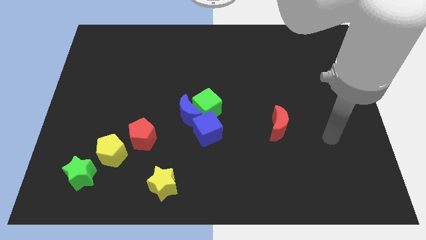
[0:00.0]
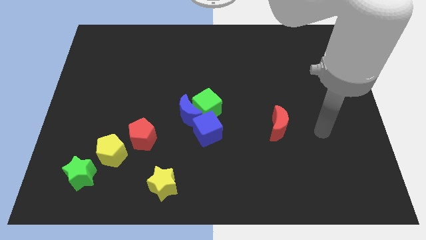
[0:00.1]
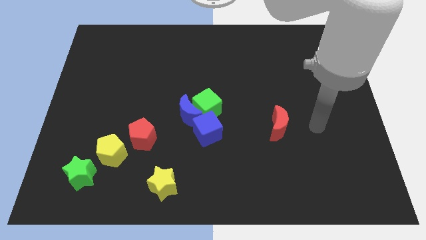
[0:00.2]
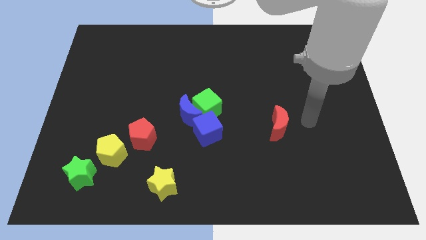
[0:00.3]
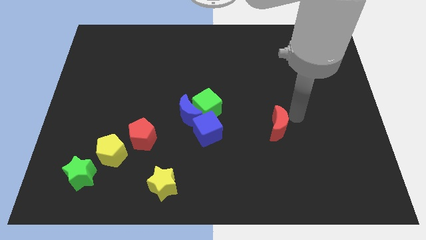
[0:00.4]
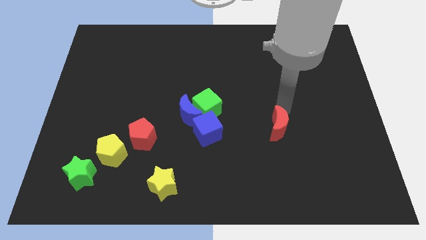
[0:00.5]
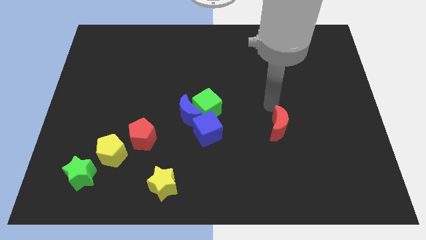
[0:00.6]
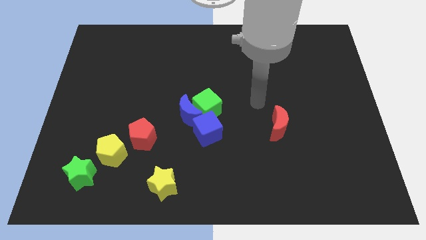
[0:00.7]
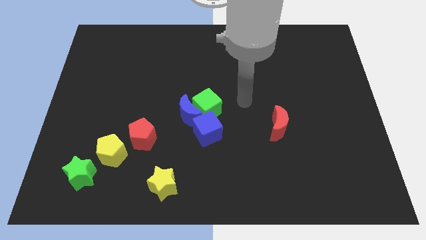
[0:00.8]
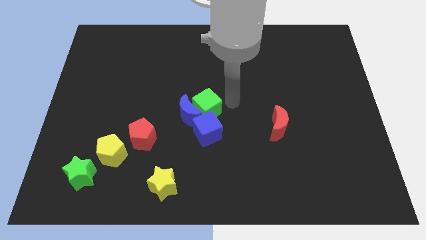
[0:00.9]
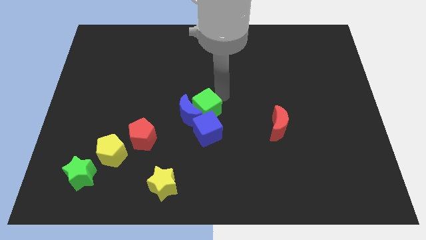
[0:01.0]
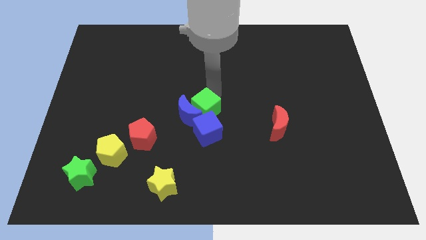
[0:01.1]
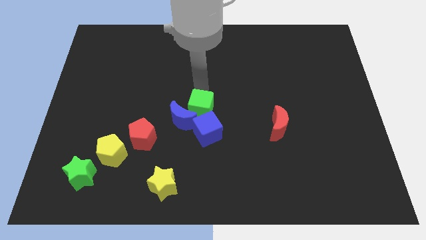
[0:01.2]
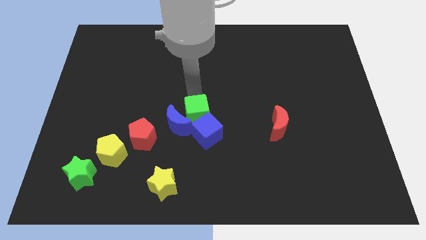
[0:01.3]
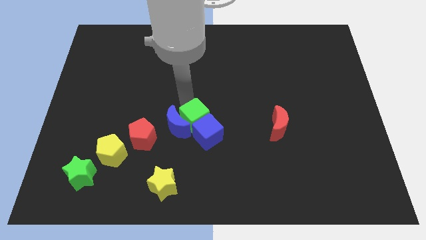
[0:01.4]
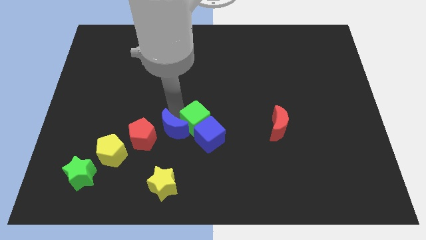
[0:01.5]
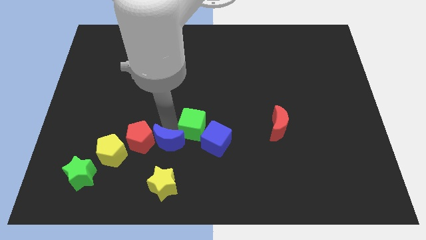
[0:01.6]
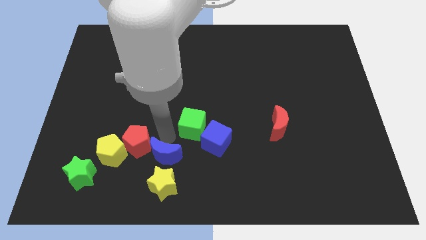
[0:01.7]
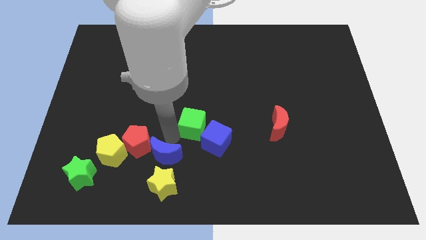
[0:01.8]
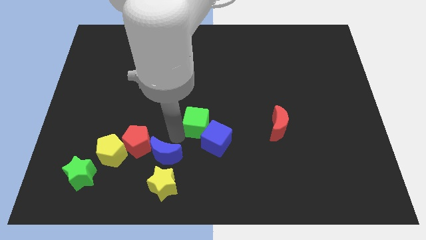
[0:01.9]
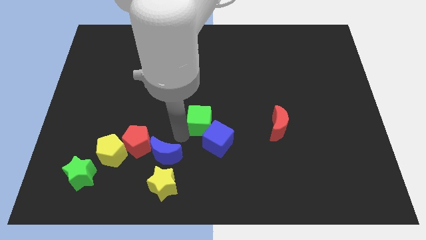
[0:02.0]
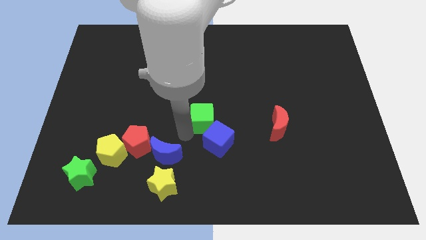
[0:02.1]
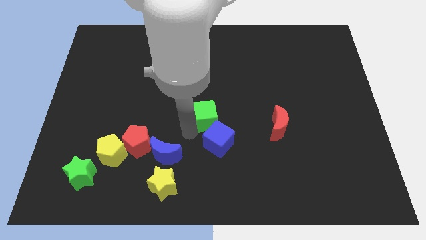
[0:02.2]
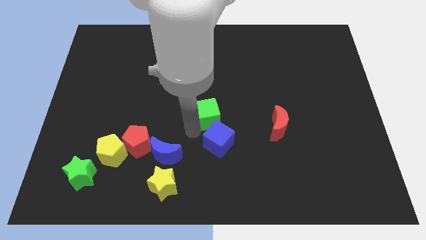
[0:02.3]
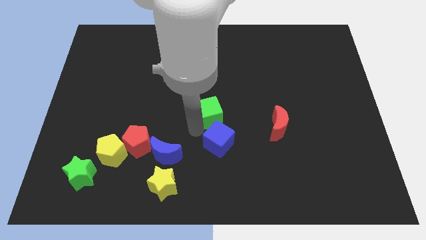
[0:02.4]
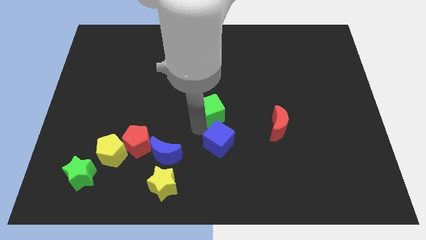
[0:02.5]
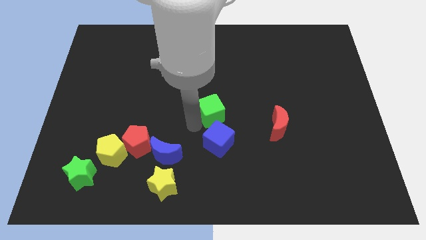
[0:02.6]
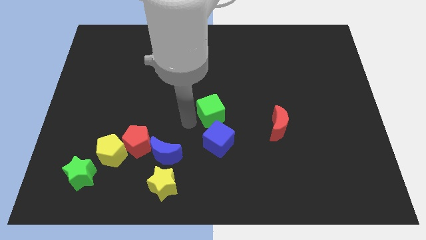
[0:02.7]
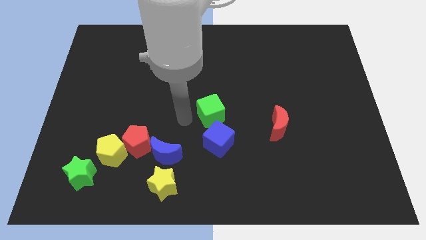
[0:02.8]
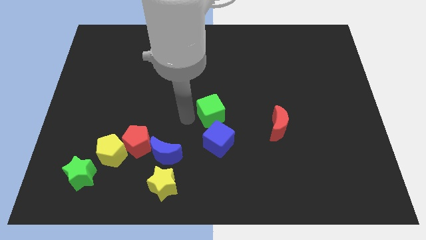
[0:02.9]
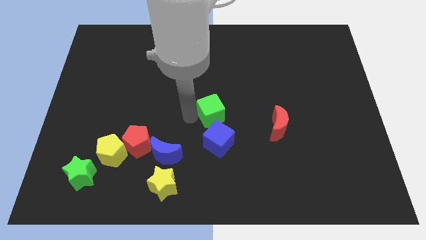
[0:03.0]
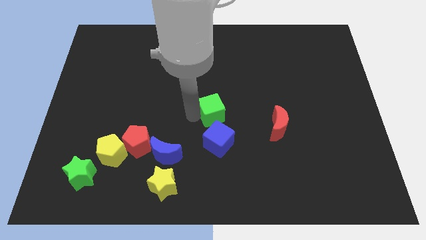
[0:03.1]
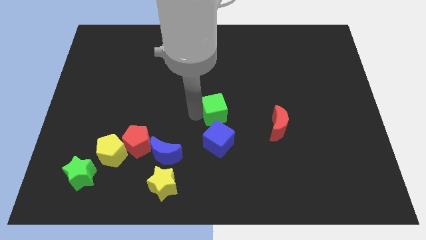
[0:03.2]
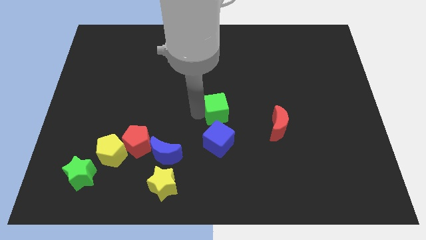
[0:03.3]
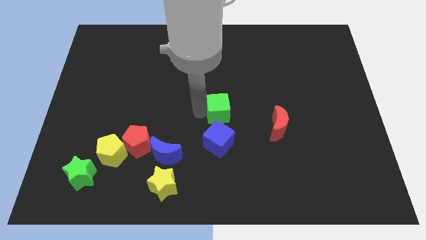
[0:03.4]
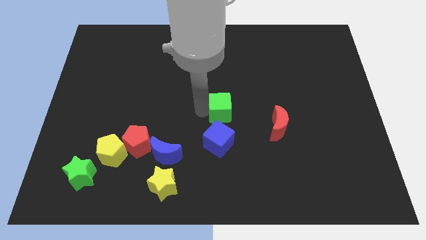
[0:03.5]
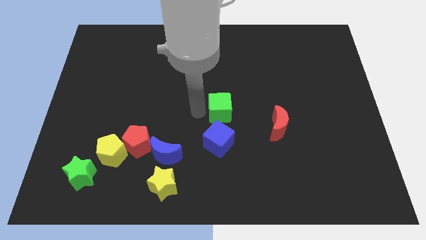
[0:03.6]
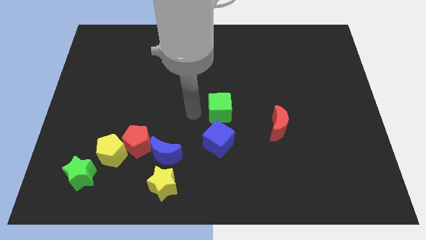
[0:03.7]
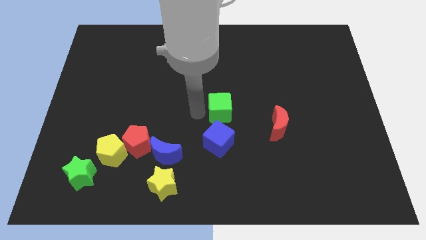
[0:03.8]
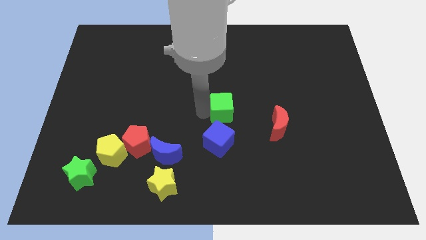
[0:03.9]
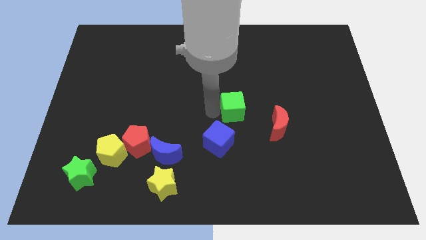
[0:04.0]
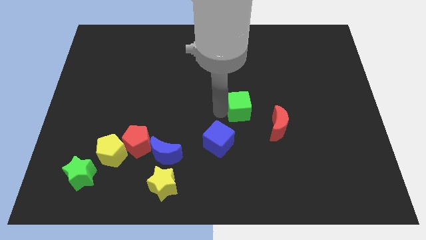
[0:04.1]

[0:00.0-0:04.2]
push the green cube slightly to the right

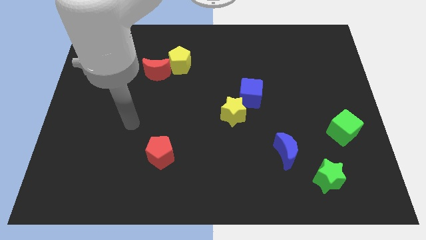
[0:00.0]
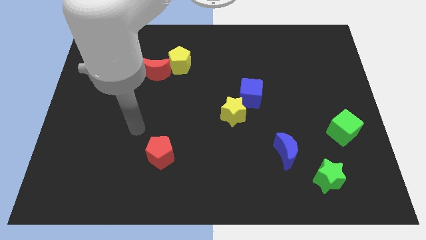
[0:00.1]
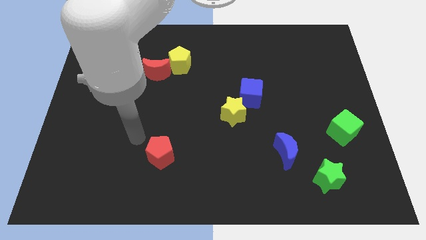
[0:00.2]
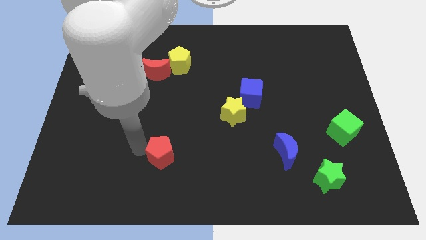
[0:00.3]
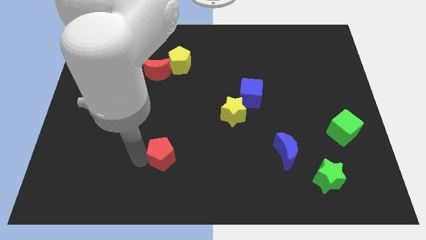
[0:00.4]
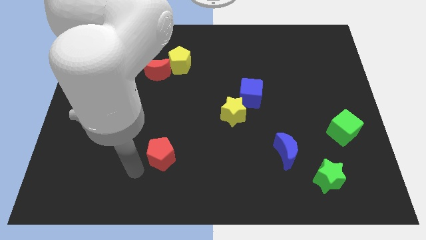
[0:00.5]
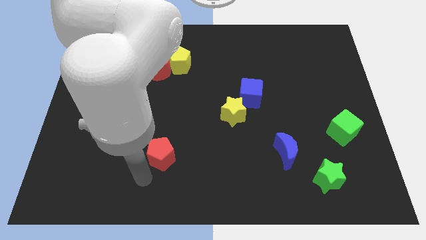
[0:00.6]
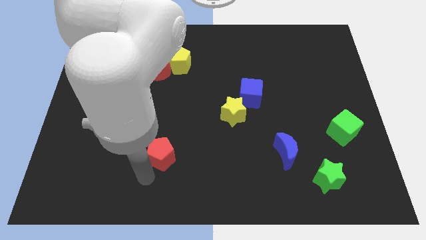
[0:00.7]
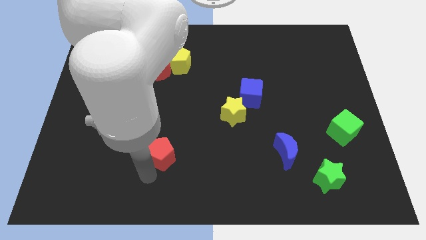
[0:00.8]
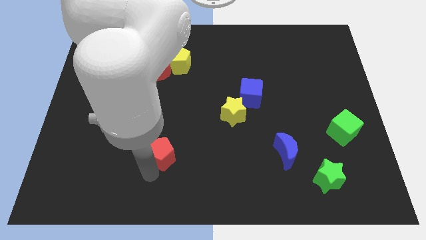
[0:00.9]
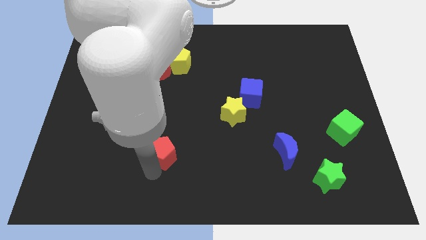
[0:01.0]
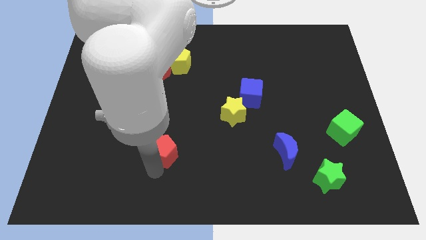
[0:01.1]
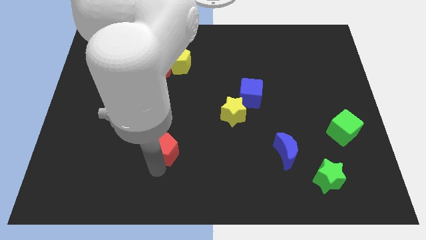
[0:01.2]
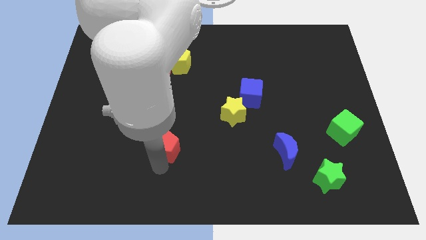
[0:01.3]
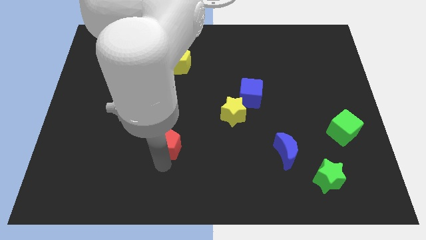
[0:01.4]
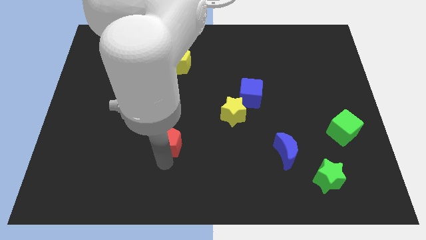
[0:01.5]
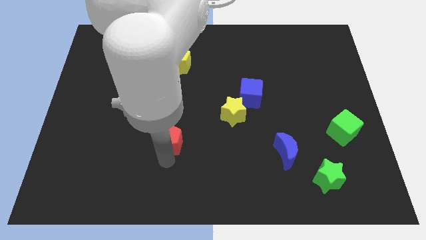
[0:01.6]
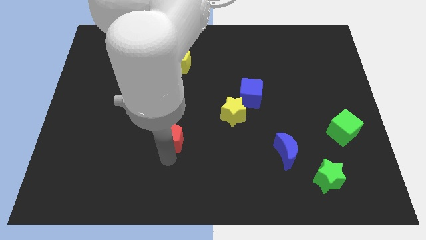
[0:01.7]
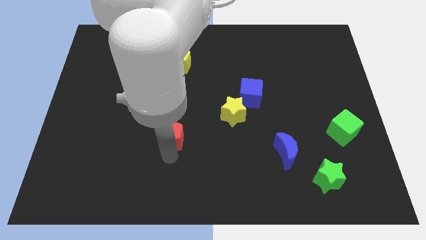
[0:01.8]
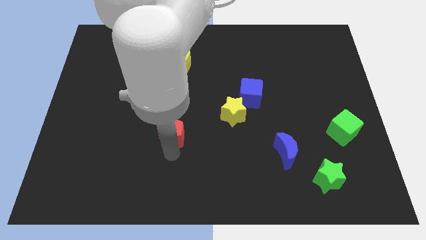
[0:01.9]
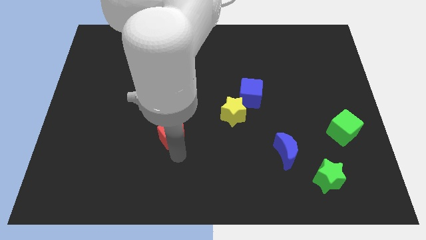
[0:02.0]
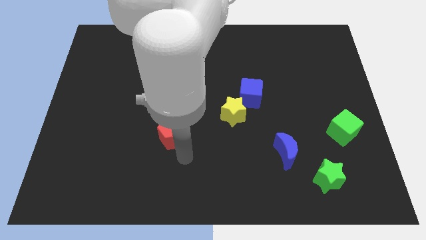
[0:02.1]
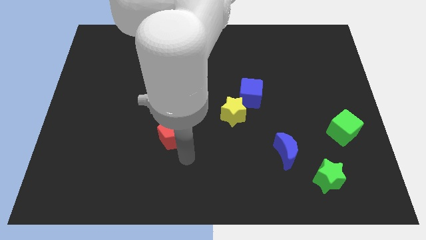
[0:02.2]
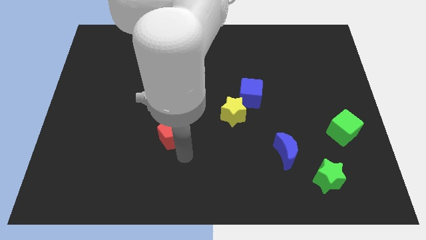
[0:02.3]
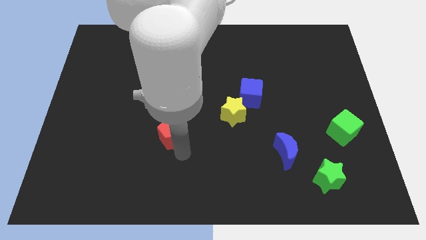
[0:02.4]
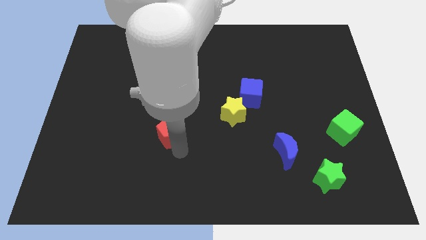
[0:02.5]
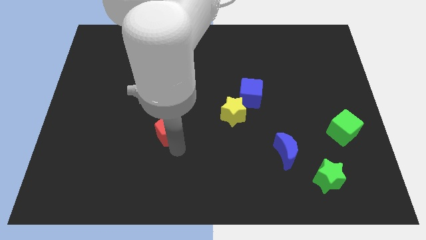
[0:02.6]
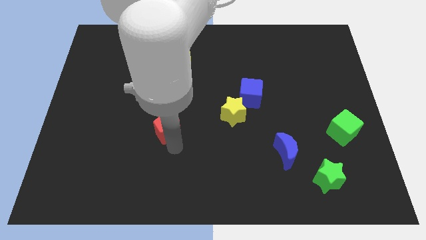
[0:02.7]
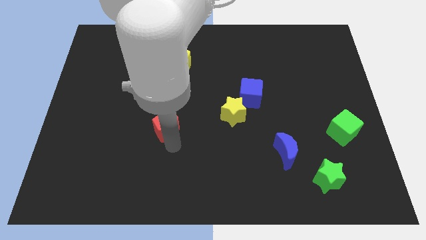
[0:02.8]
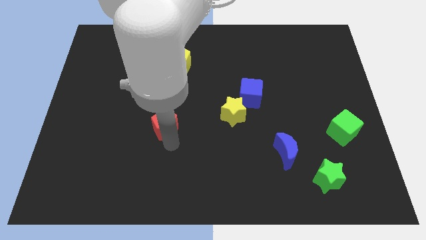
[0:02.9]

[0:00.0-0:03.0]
slide the red pentagon up a little

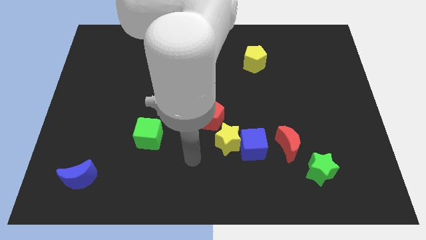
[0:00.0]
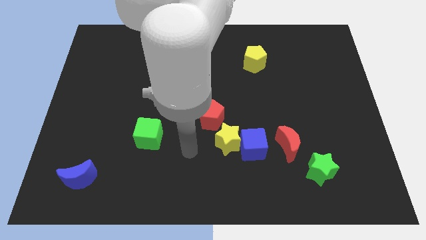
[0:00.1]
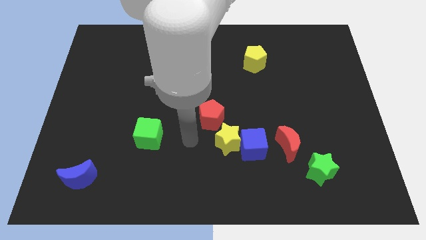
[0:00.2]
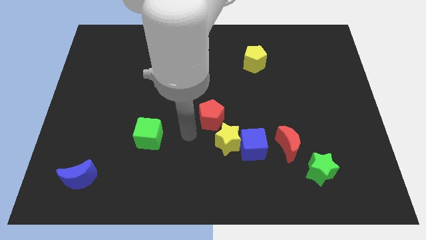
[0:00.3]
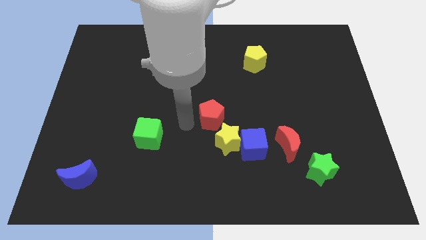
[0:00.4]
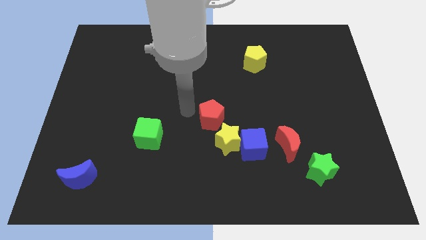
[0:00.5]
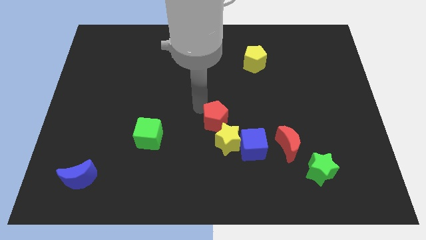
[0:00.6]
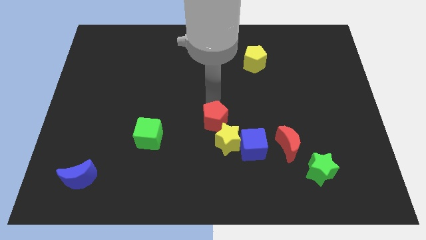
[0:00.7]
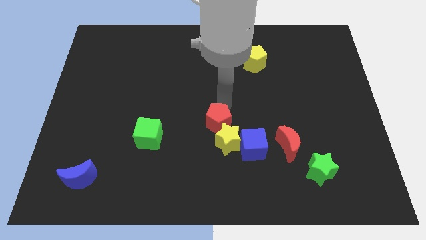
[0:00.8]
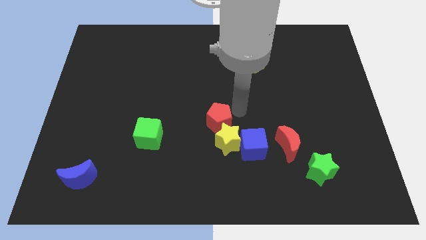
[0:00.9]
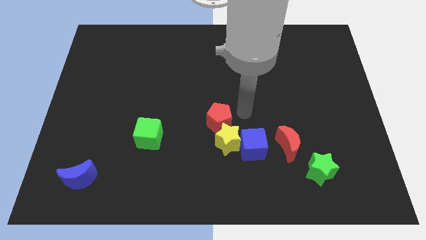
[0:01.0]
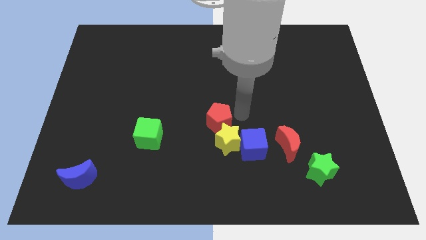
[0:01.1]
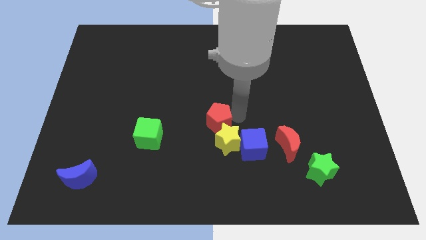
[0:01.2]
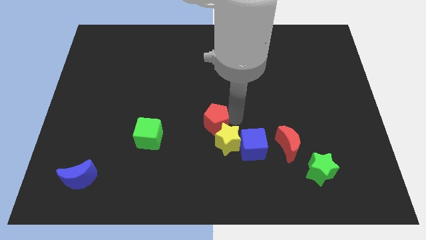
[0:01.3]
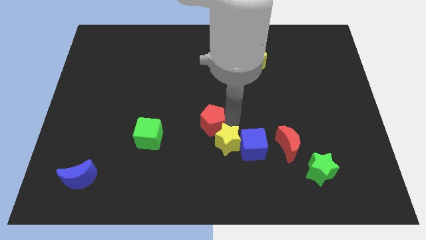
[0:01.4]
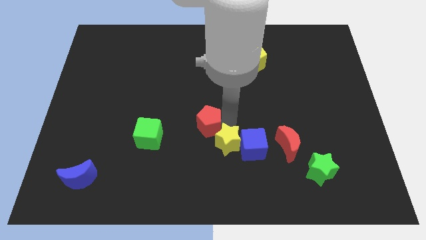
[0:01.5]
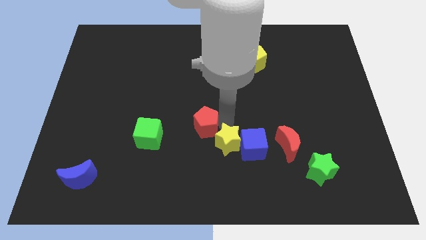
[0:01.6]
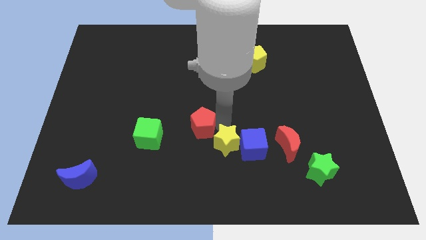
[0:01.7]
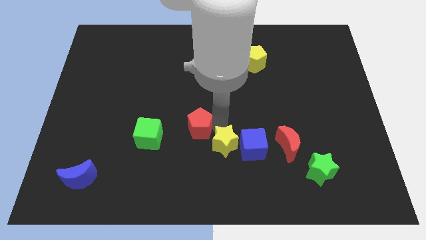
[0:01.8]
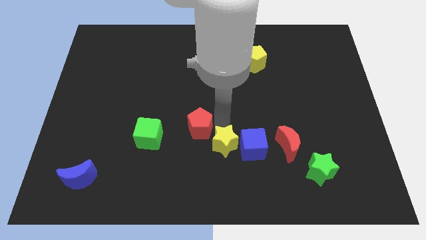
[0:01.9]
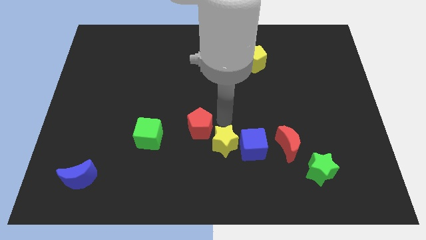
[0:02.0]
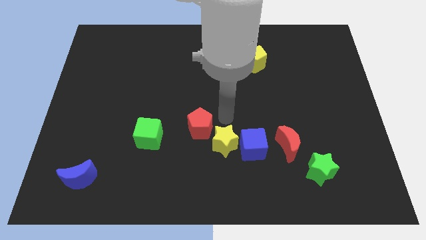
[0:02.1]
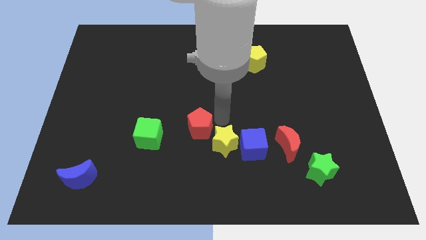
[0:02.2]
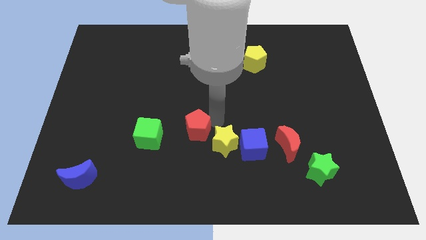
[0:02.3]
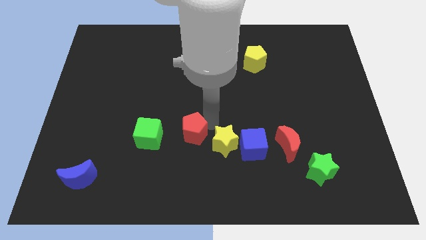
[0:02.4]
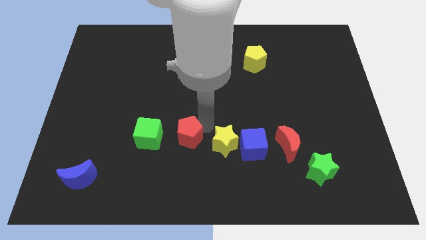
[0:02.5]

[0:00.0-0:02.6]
slide the red pentagon a little bit down and to the left diagonally
